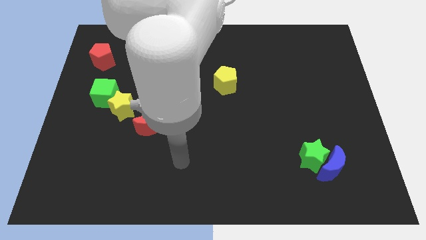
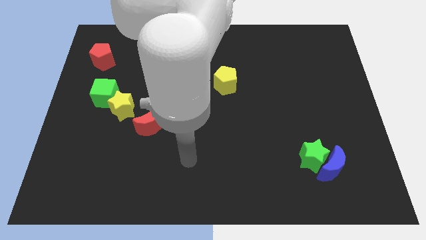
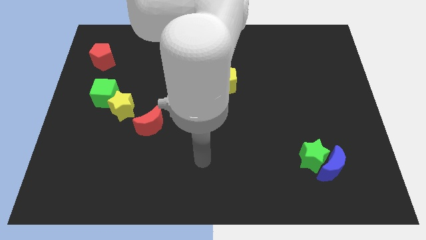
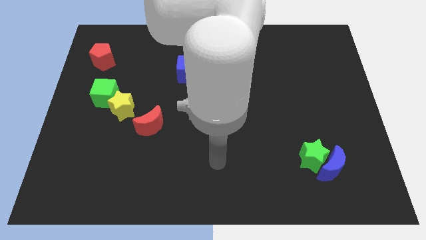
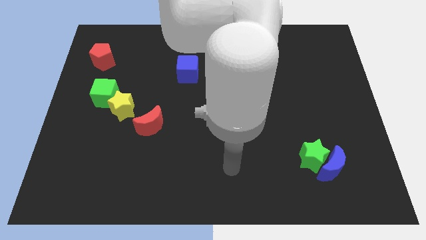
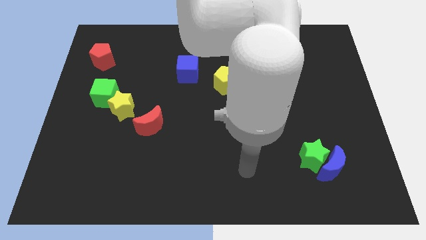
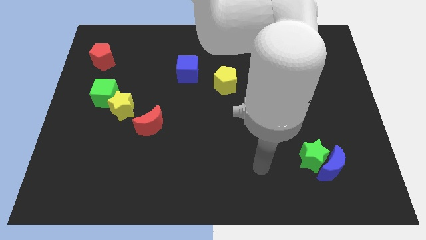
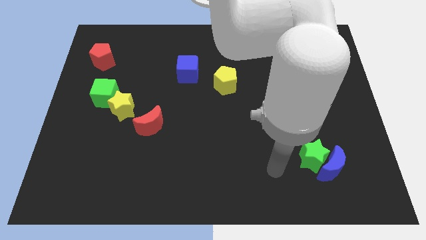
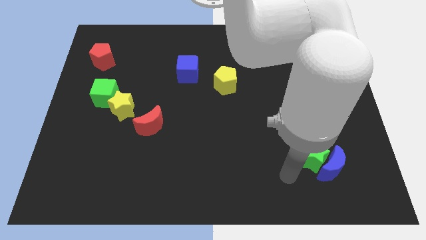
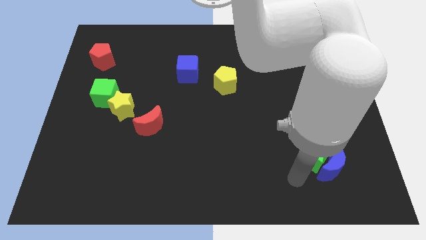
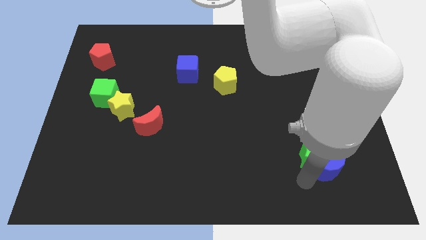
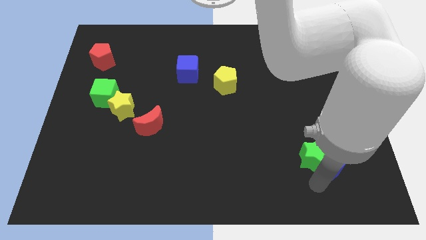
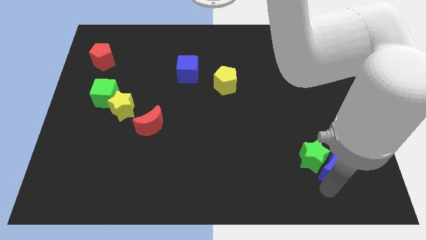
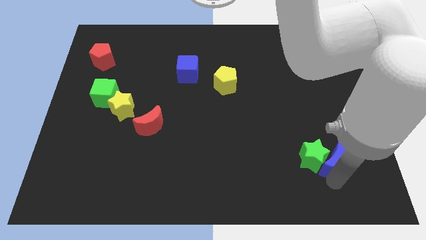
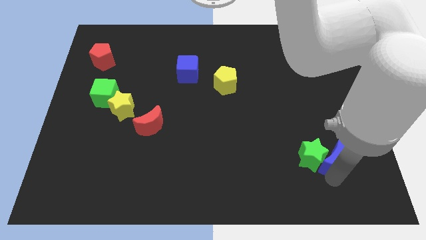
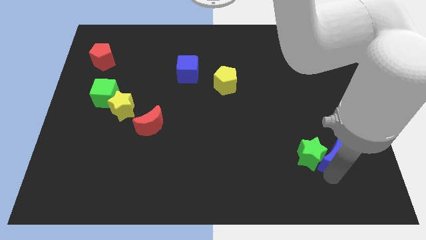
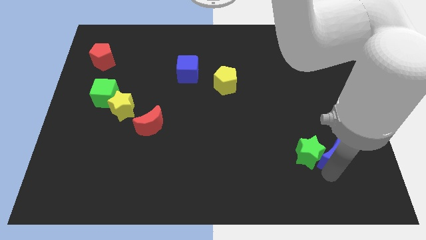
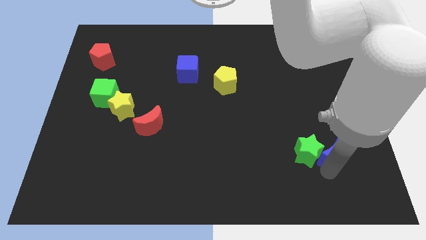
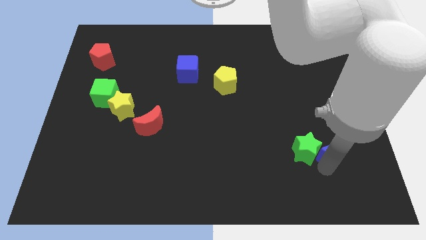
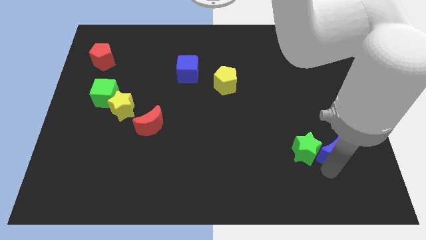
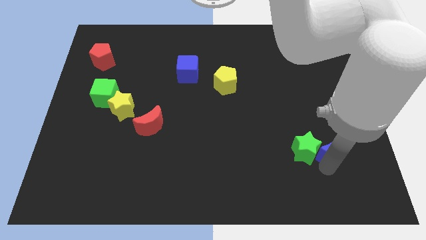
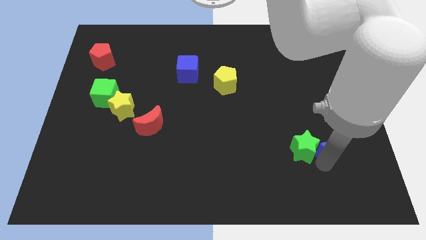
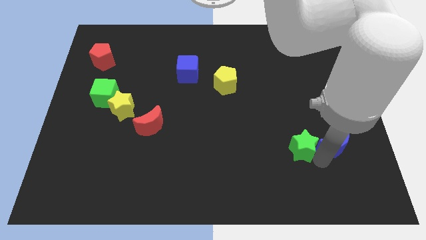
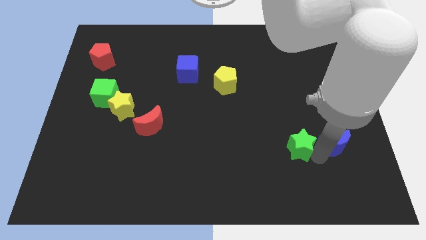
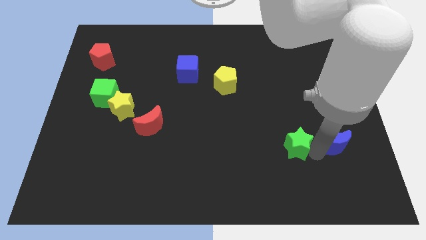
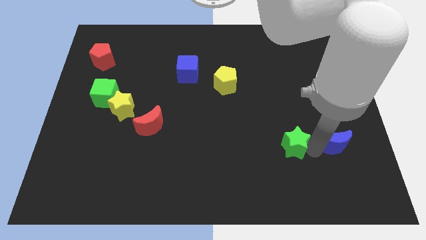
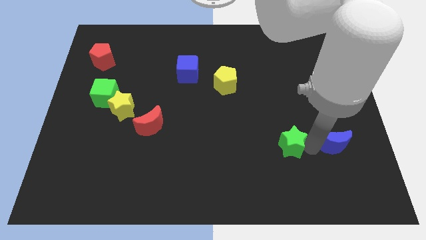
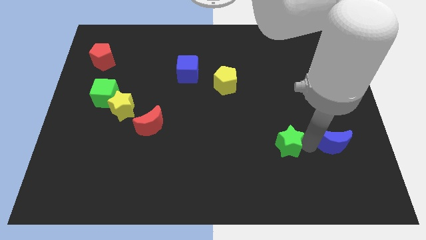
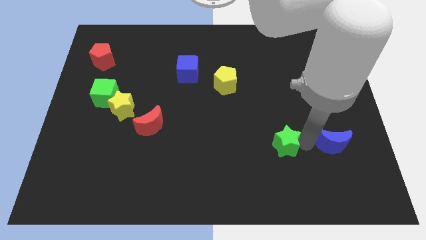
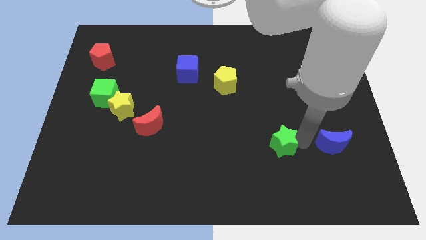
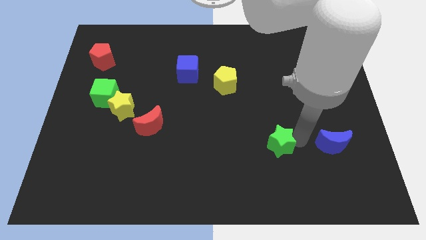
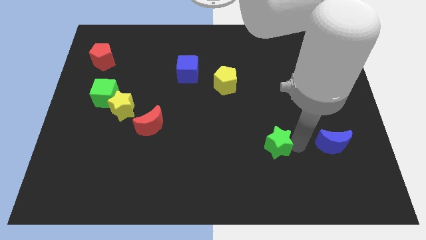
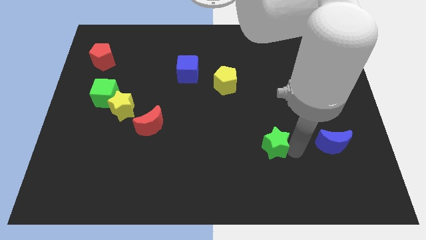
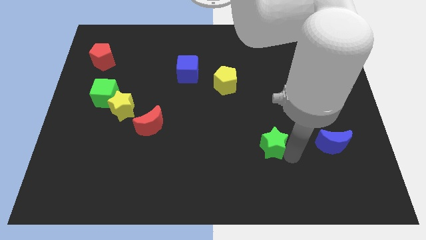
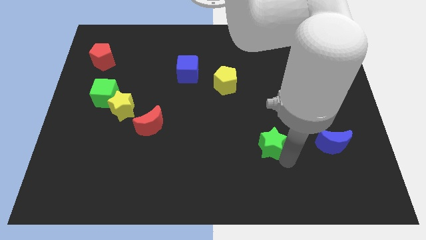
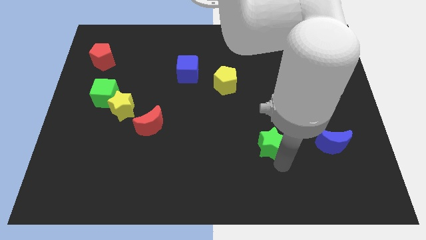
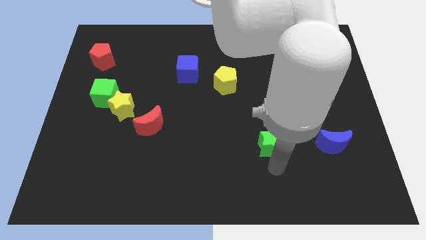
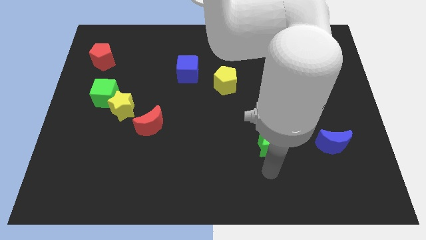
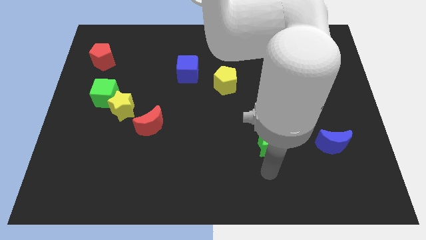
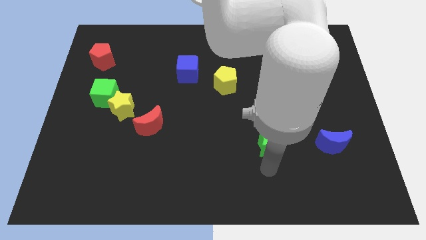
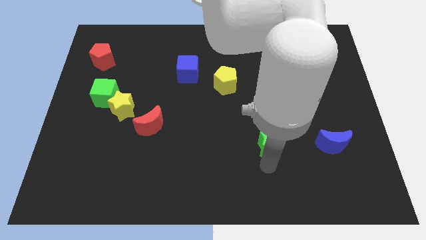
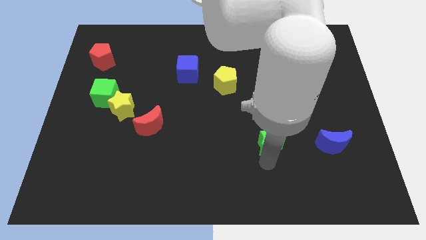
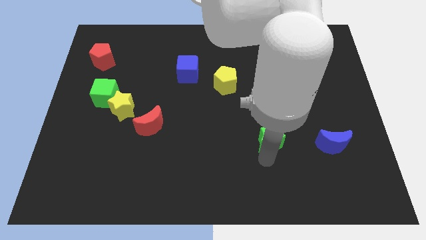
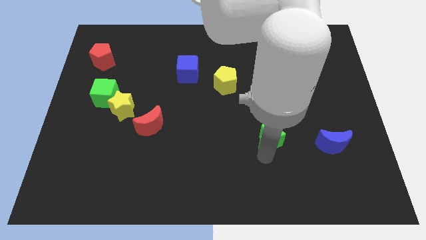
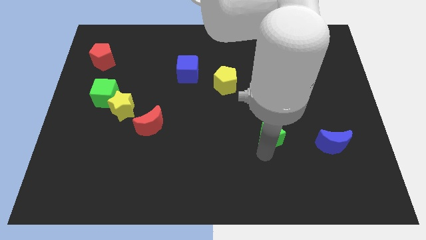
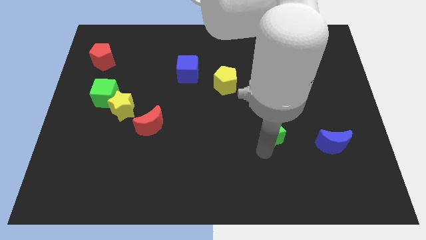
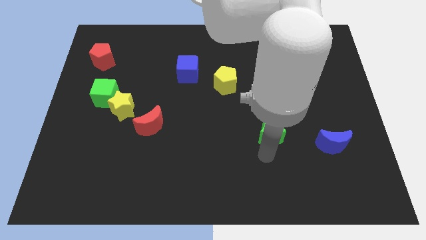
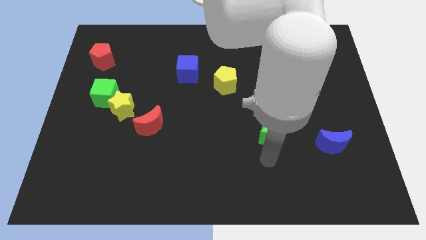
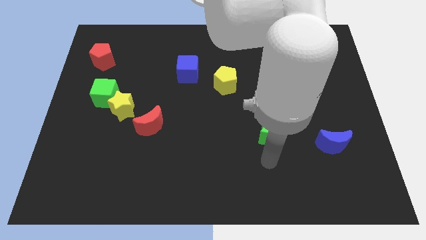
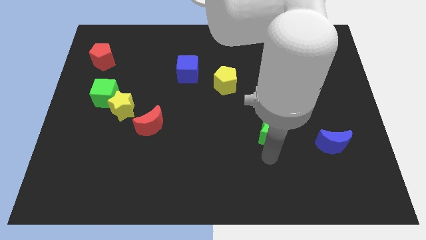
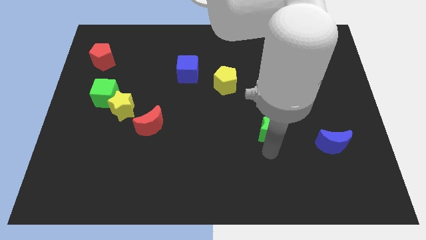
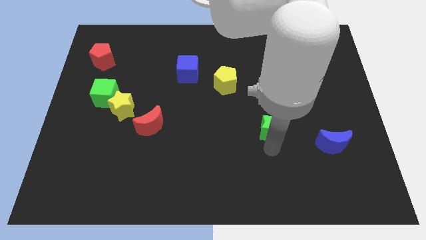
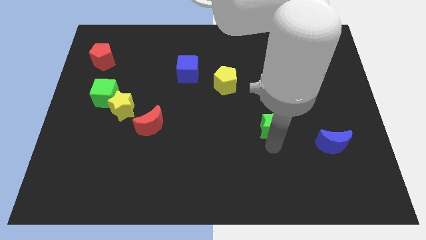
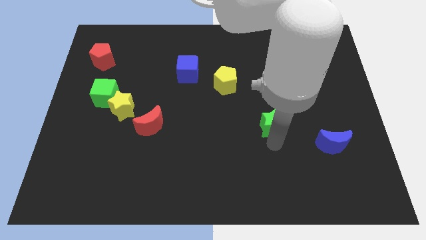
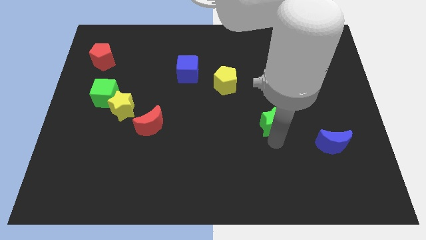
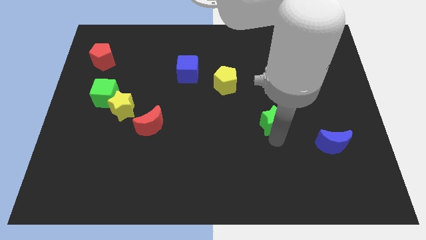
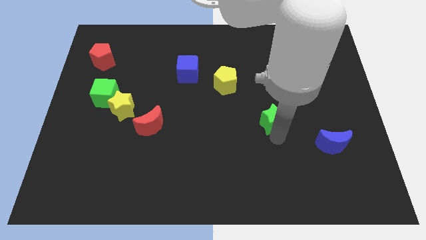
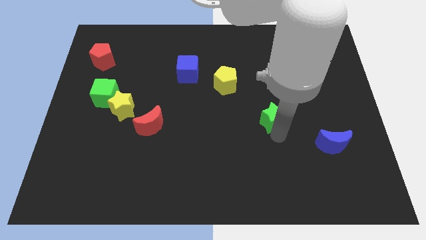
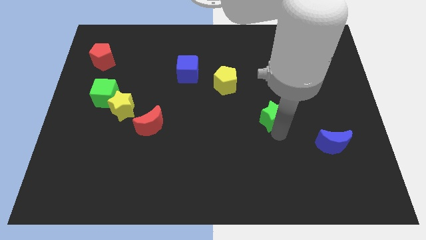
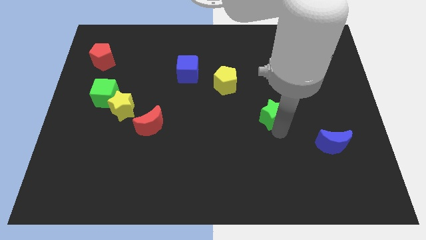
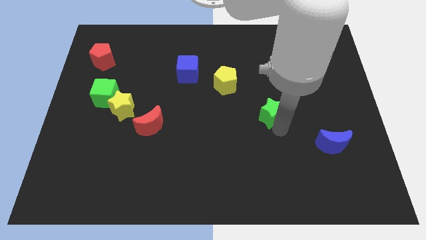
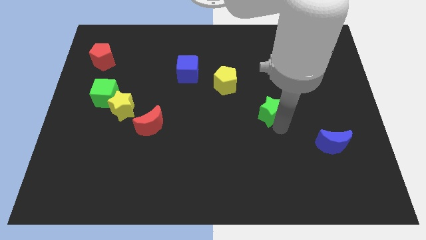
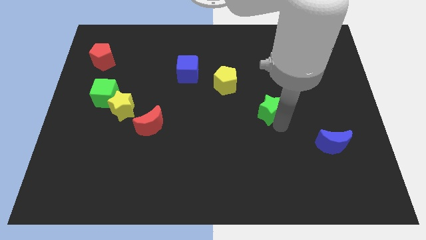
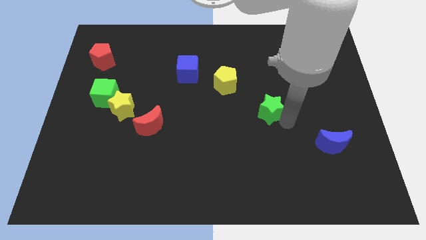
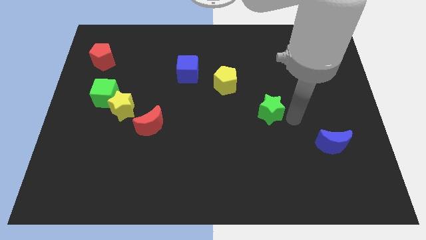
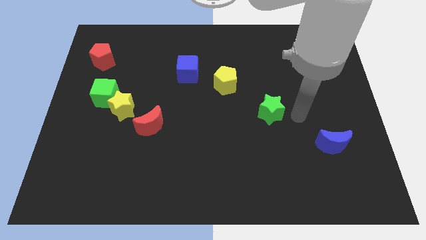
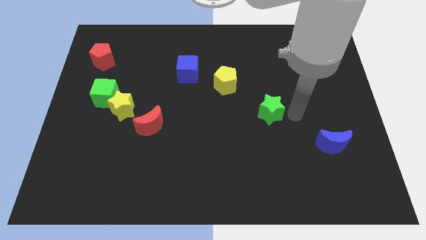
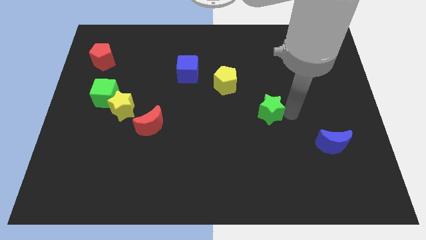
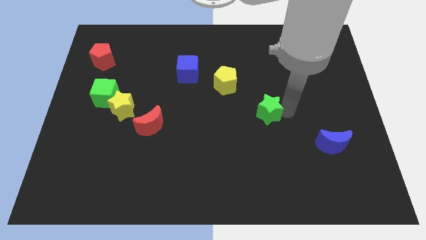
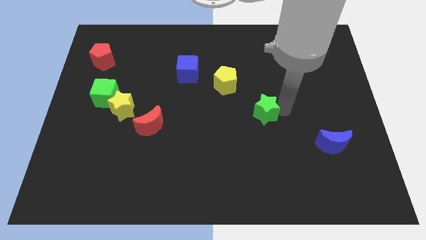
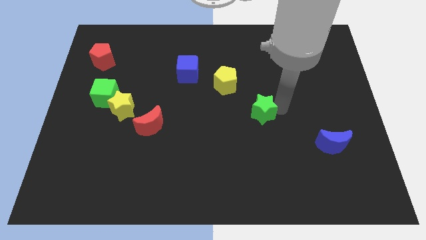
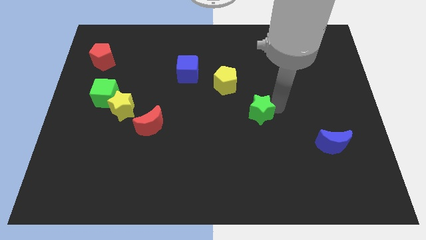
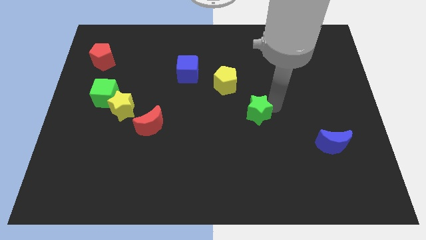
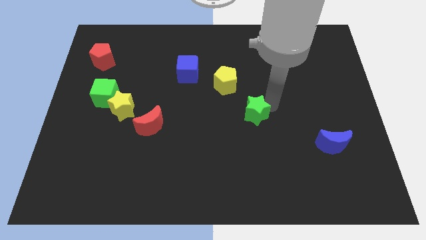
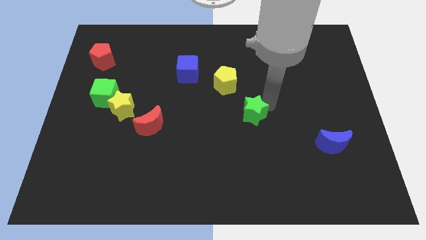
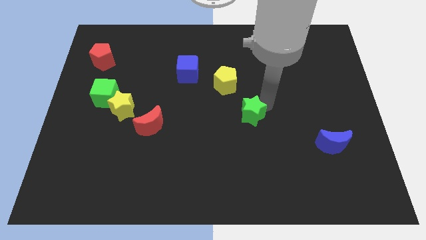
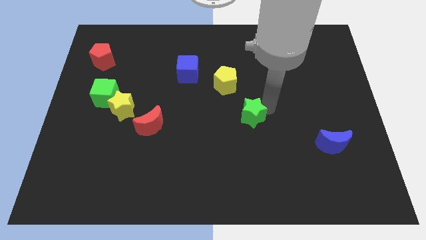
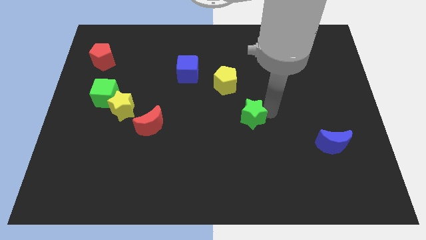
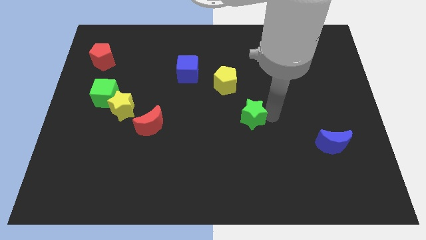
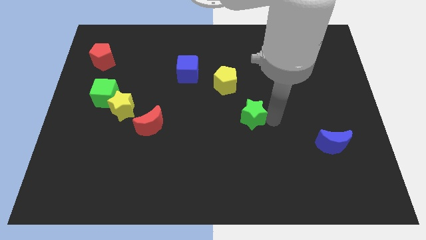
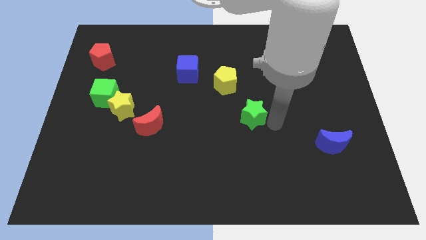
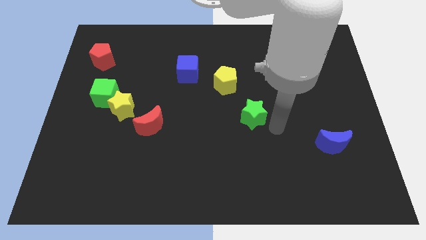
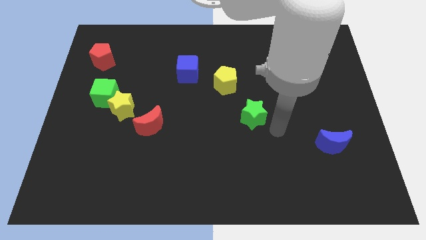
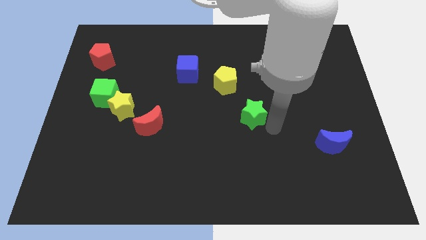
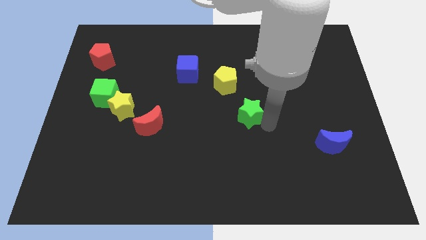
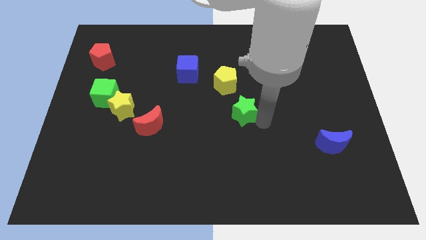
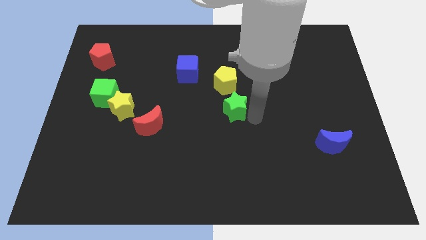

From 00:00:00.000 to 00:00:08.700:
move the green star up and then left
